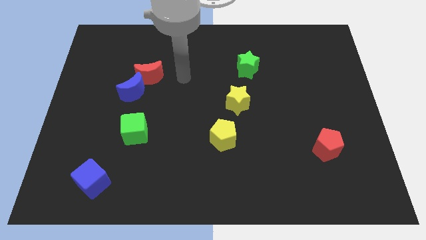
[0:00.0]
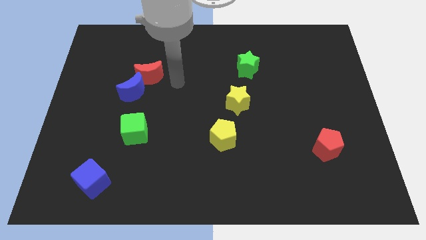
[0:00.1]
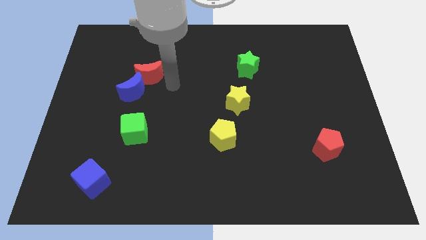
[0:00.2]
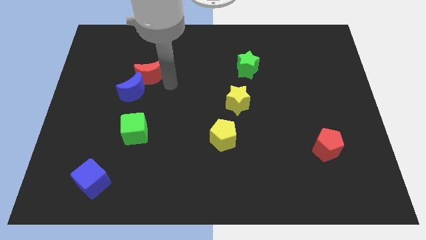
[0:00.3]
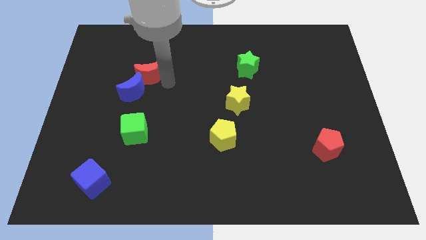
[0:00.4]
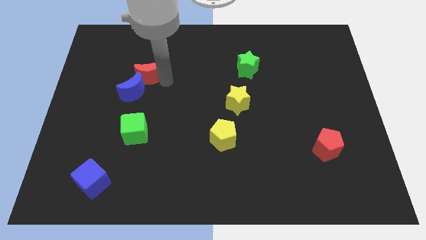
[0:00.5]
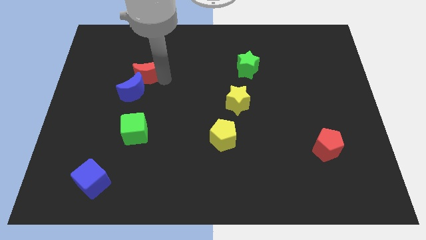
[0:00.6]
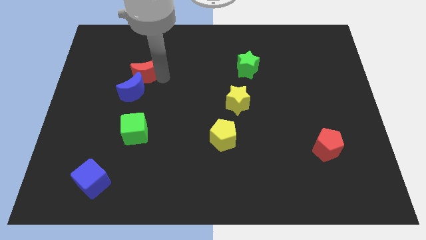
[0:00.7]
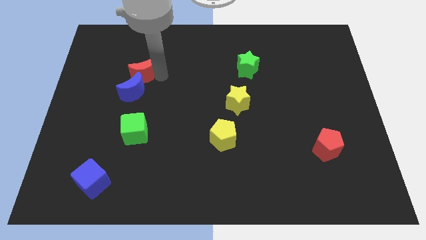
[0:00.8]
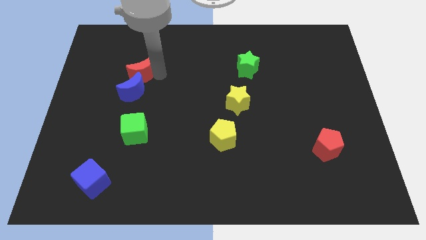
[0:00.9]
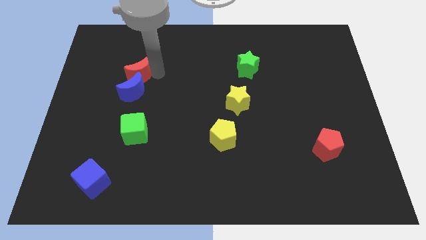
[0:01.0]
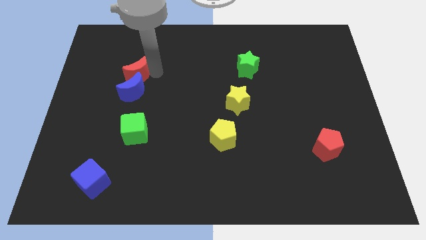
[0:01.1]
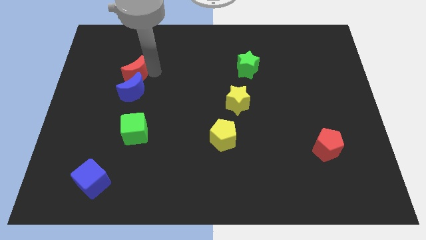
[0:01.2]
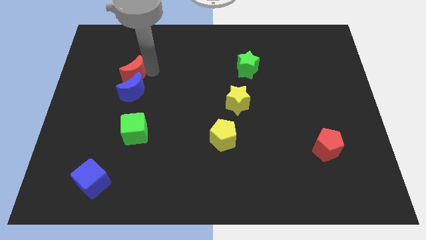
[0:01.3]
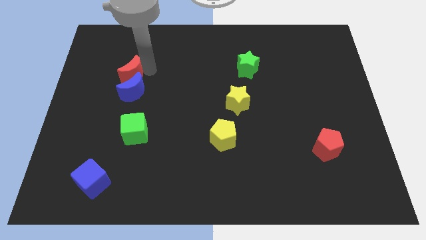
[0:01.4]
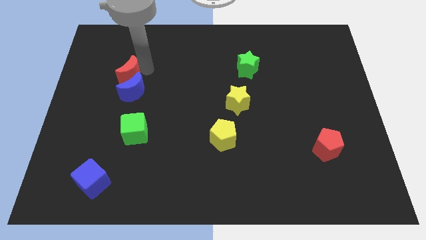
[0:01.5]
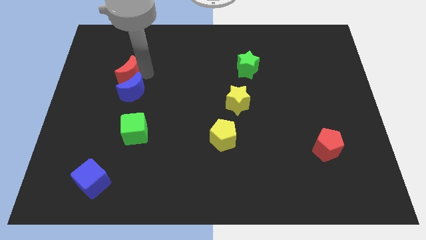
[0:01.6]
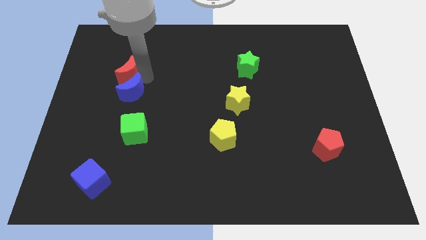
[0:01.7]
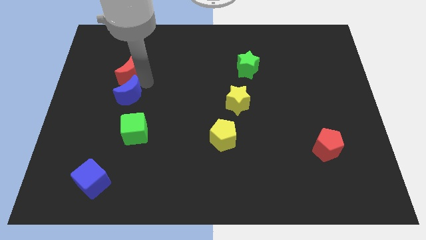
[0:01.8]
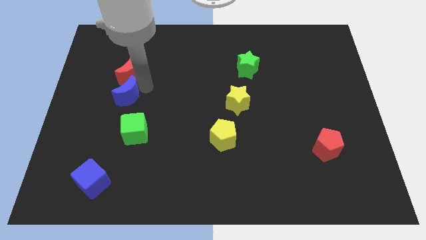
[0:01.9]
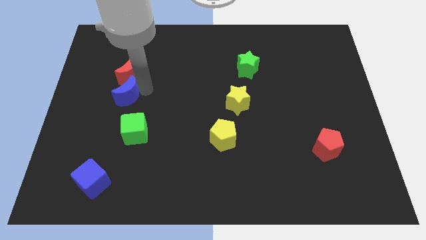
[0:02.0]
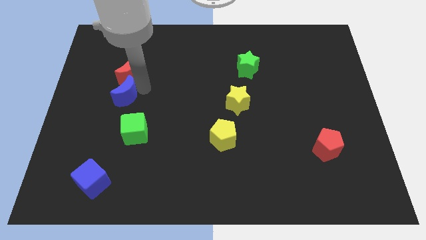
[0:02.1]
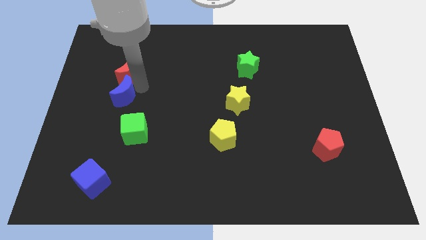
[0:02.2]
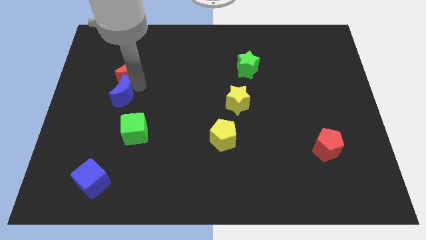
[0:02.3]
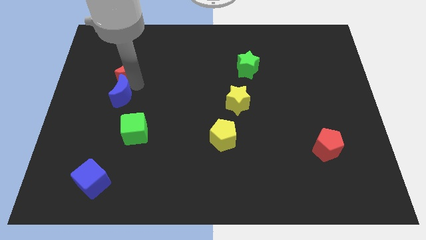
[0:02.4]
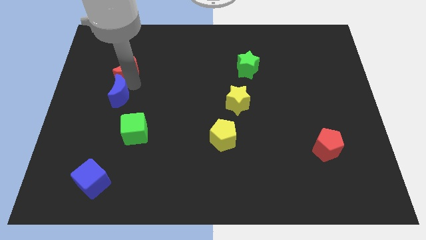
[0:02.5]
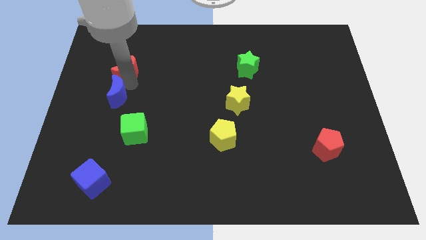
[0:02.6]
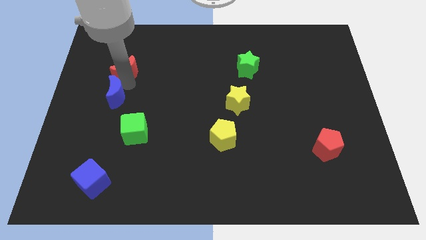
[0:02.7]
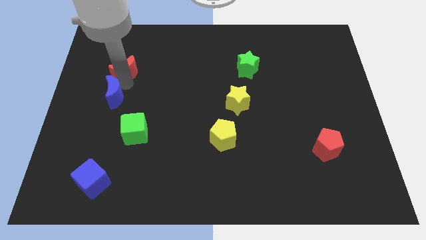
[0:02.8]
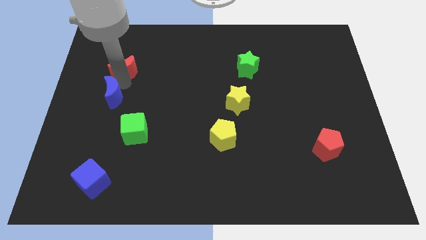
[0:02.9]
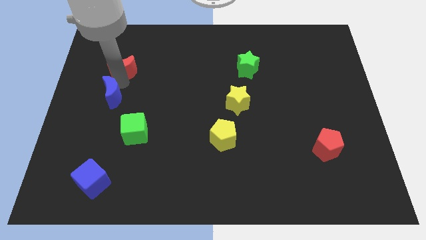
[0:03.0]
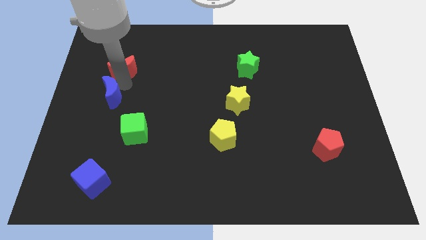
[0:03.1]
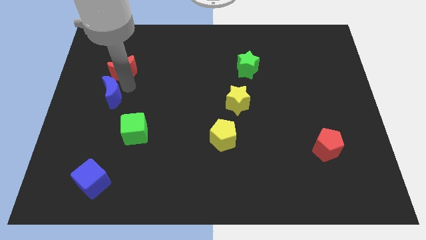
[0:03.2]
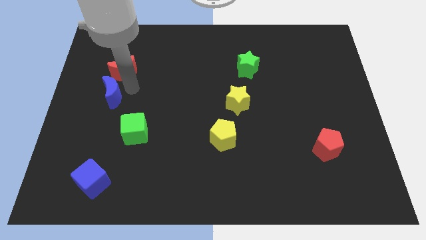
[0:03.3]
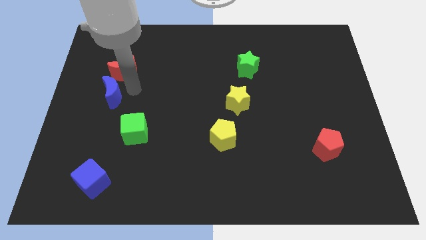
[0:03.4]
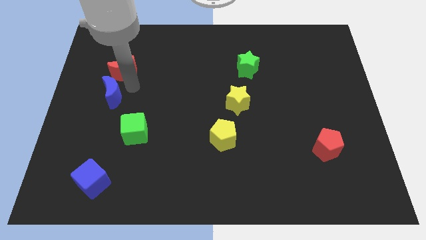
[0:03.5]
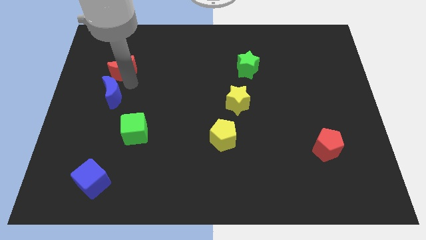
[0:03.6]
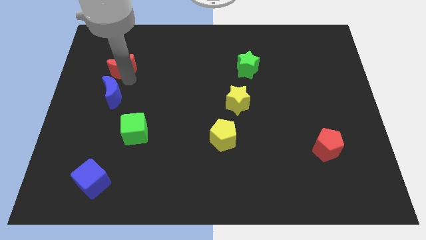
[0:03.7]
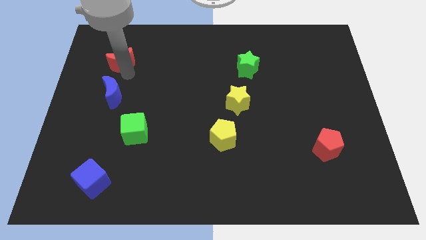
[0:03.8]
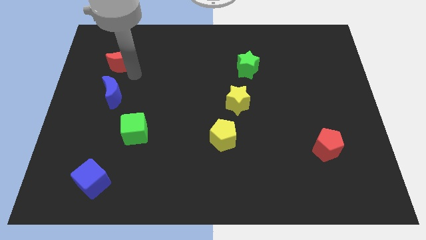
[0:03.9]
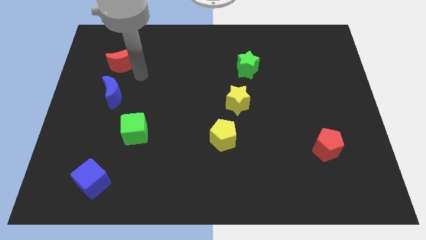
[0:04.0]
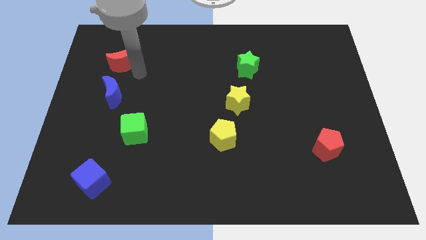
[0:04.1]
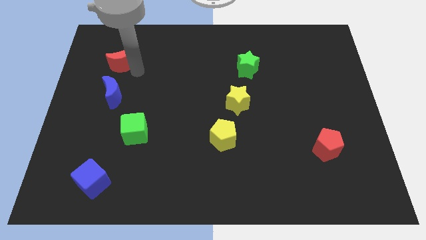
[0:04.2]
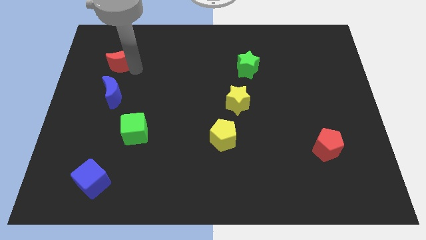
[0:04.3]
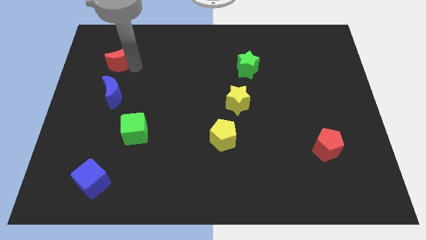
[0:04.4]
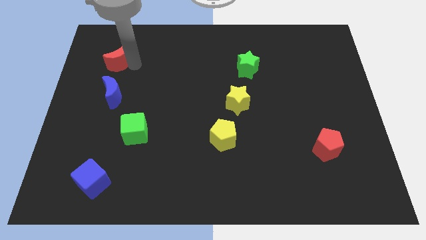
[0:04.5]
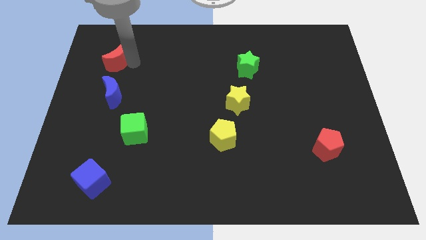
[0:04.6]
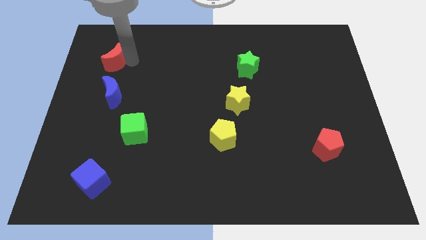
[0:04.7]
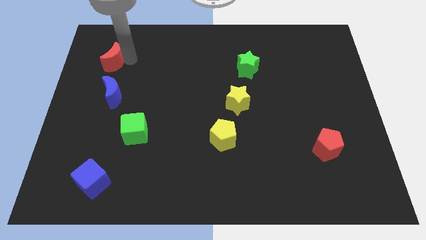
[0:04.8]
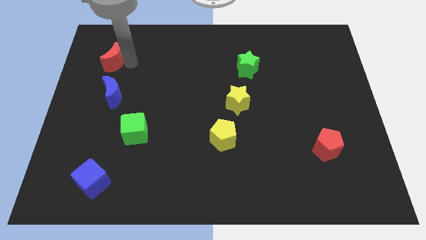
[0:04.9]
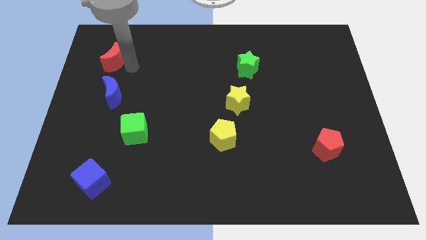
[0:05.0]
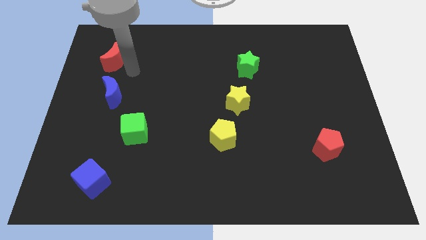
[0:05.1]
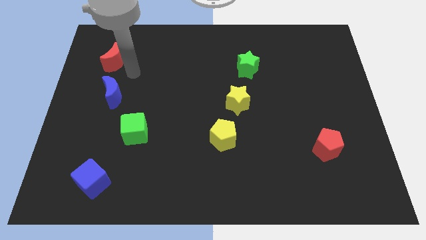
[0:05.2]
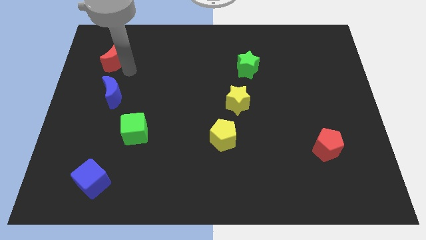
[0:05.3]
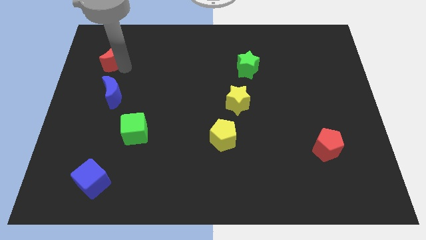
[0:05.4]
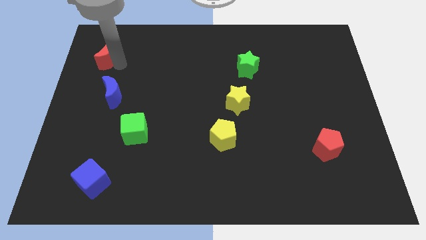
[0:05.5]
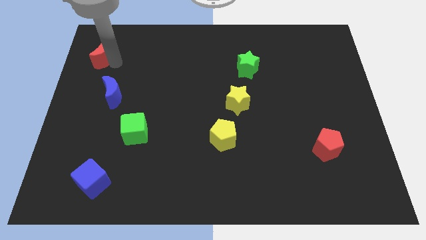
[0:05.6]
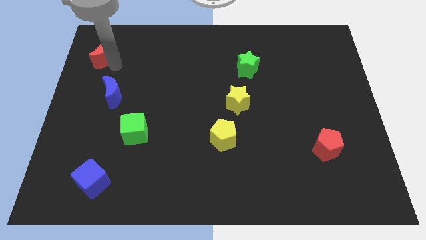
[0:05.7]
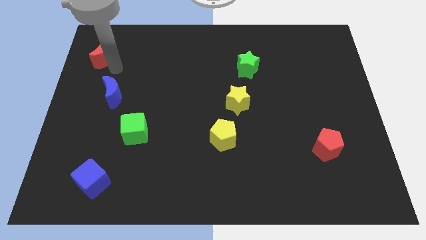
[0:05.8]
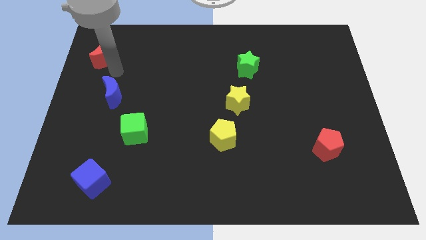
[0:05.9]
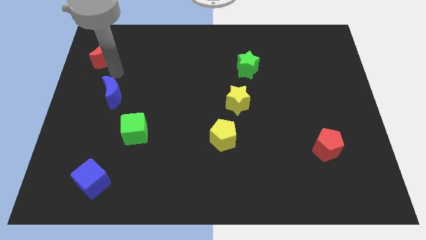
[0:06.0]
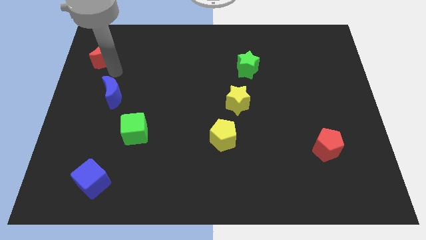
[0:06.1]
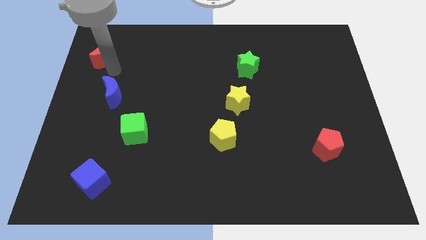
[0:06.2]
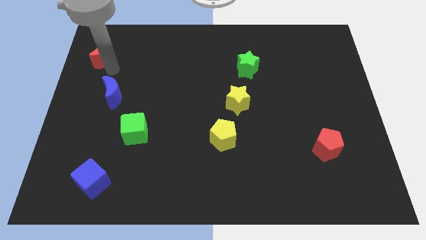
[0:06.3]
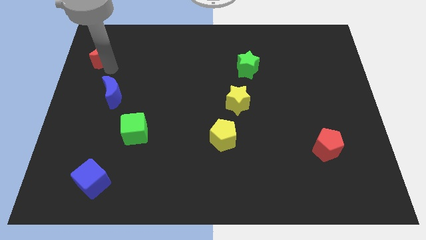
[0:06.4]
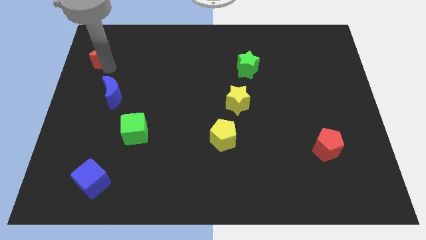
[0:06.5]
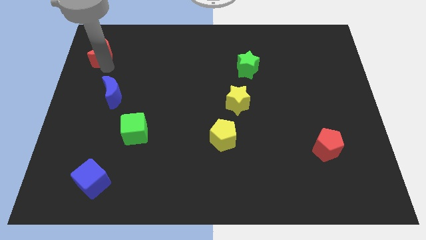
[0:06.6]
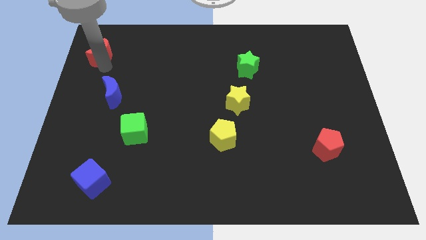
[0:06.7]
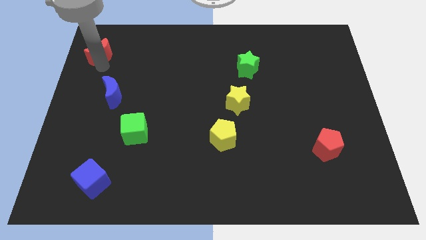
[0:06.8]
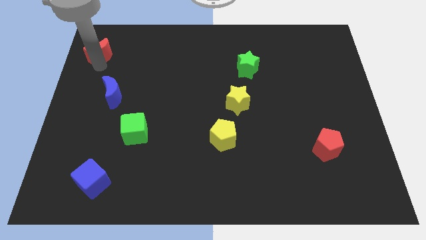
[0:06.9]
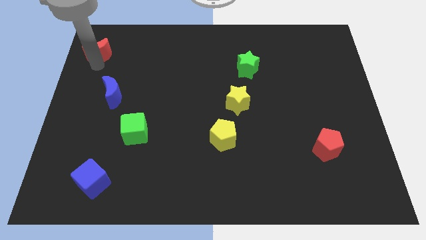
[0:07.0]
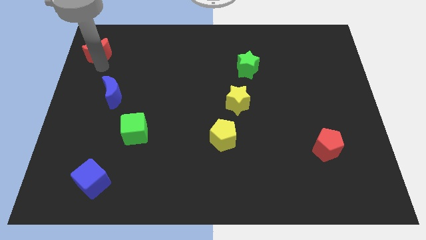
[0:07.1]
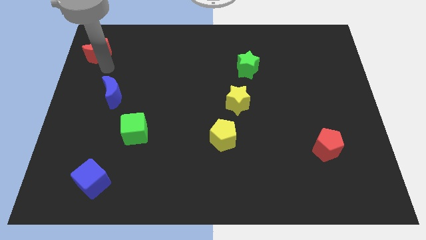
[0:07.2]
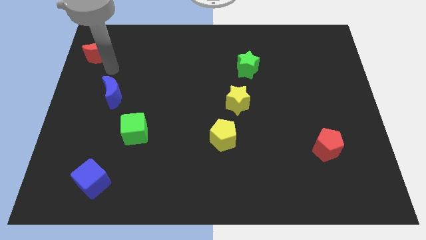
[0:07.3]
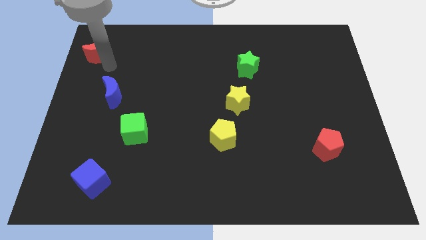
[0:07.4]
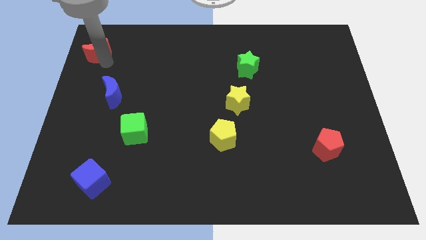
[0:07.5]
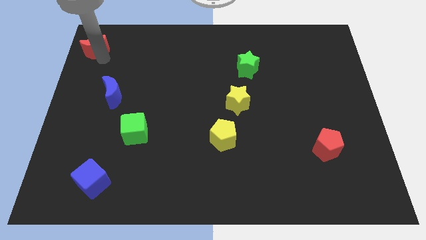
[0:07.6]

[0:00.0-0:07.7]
move the red moon to the upper left corner
